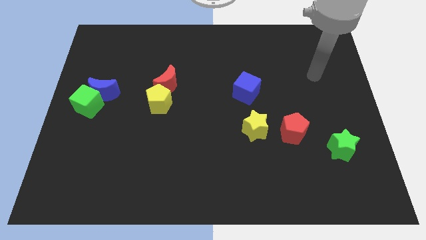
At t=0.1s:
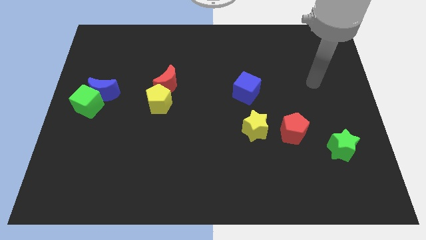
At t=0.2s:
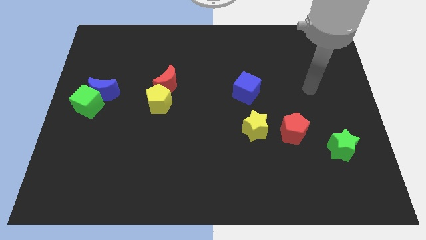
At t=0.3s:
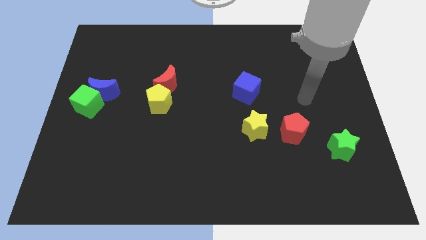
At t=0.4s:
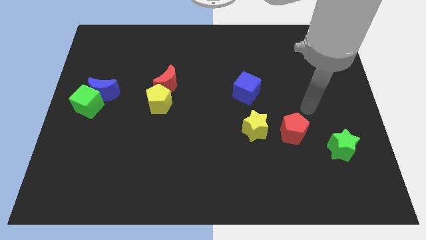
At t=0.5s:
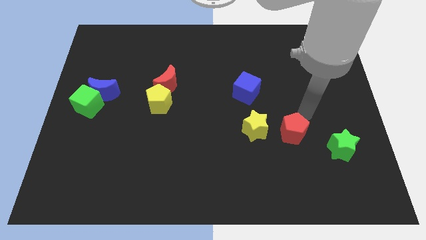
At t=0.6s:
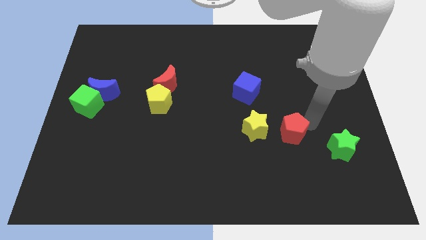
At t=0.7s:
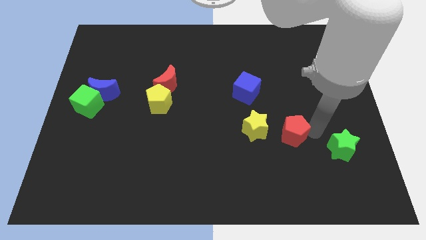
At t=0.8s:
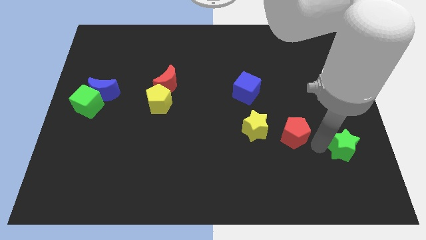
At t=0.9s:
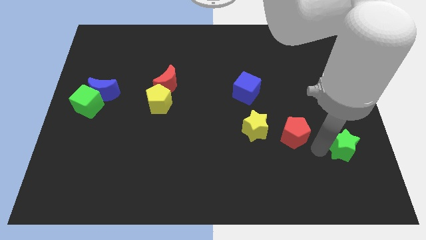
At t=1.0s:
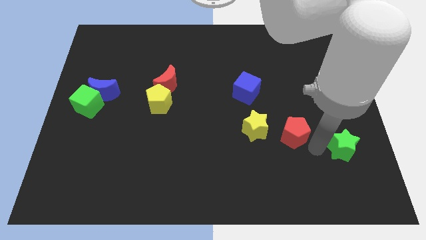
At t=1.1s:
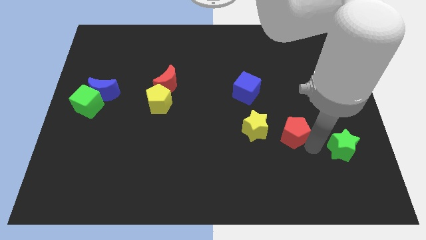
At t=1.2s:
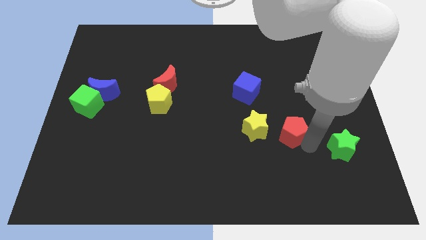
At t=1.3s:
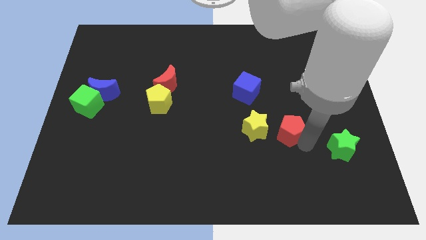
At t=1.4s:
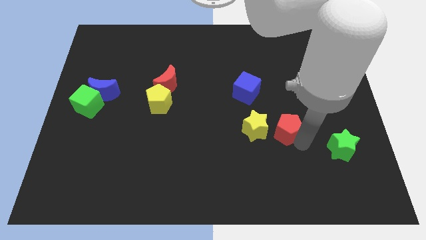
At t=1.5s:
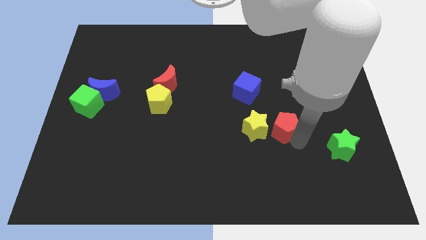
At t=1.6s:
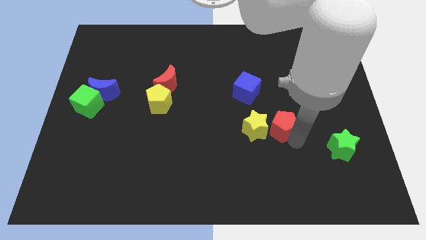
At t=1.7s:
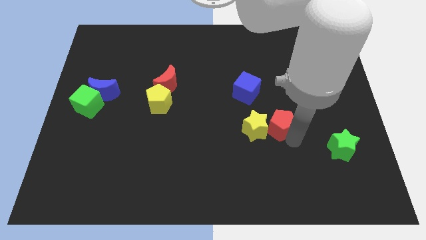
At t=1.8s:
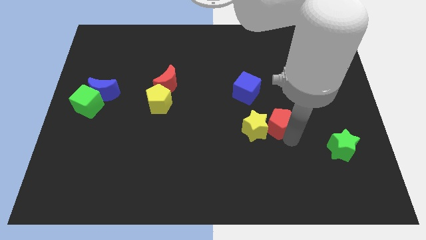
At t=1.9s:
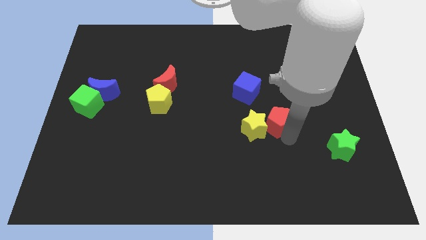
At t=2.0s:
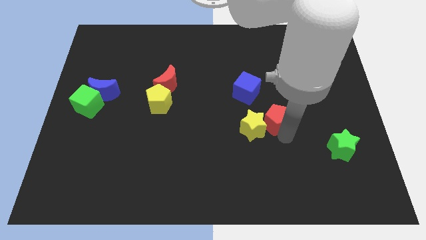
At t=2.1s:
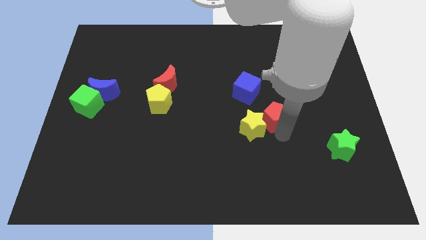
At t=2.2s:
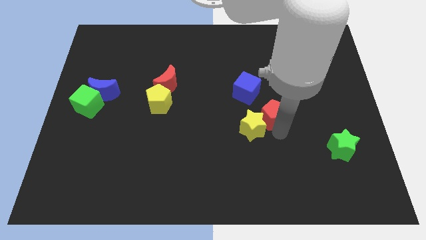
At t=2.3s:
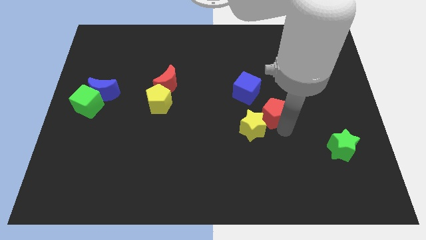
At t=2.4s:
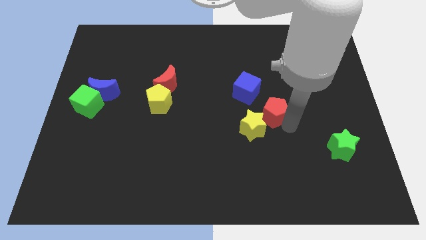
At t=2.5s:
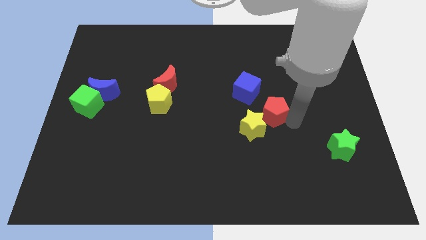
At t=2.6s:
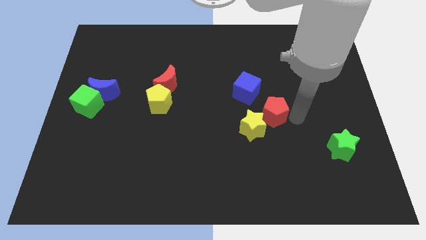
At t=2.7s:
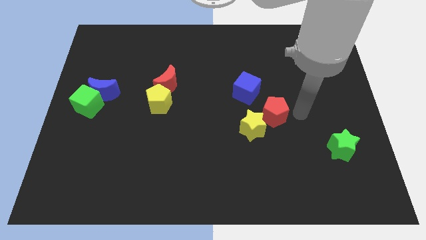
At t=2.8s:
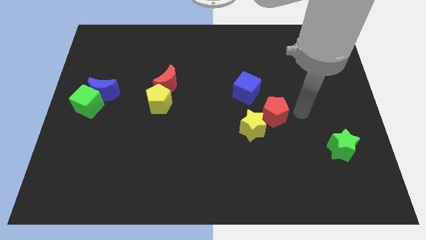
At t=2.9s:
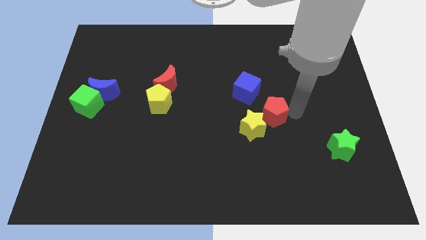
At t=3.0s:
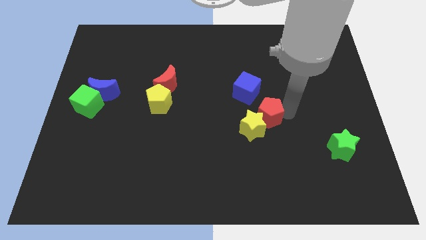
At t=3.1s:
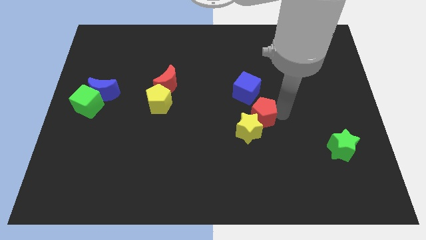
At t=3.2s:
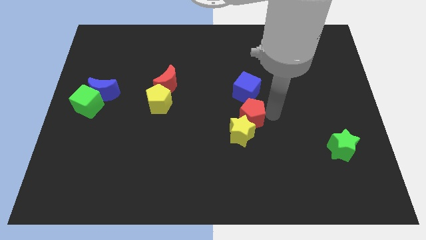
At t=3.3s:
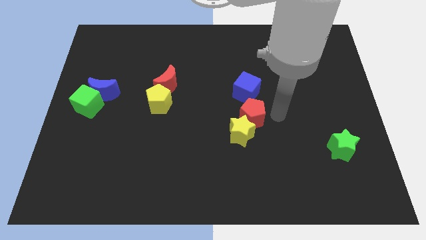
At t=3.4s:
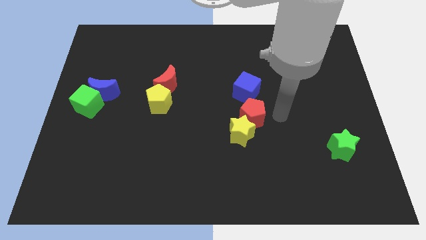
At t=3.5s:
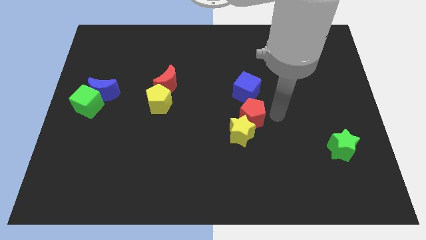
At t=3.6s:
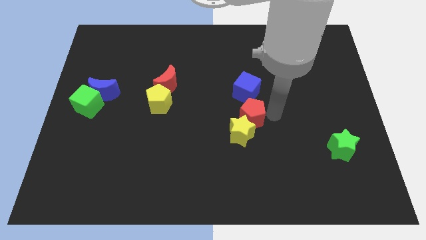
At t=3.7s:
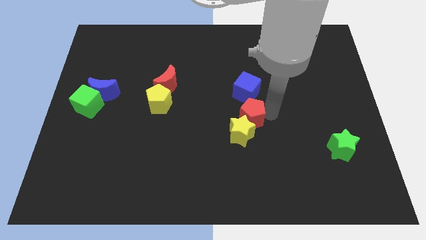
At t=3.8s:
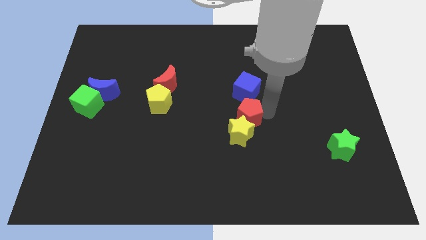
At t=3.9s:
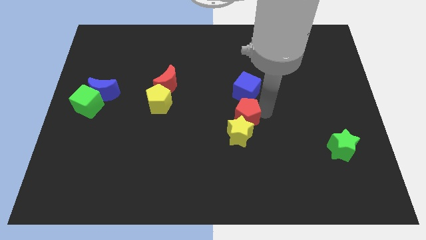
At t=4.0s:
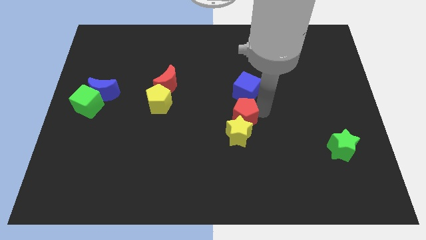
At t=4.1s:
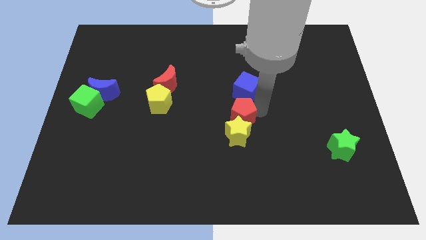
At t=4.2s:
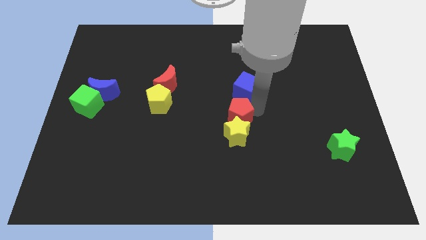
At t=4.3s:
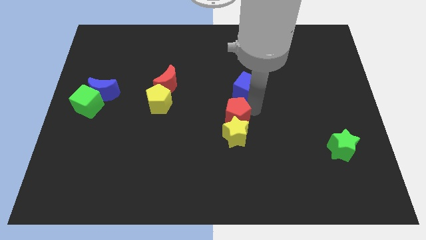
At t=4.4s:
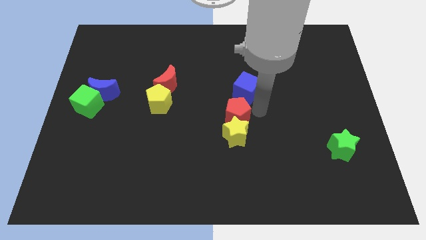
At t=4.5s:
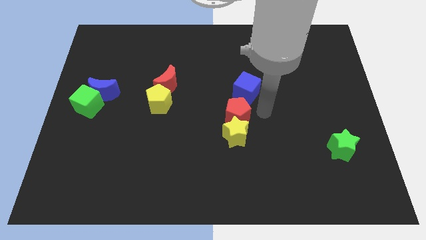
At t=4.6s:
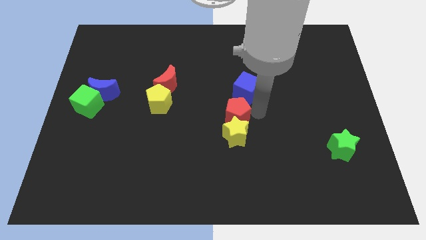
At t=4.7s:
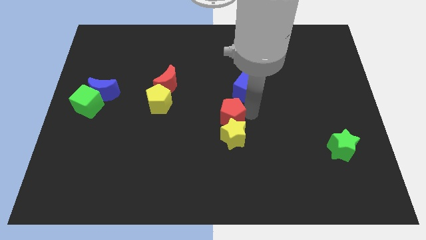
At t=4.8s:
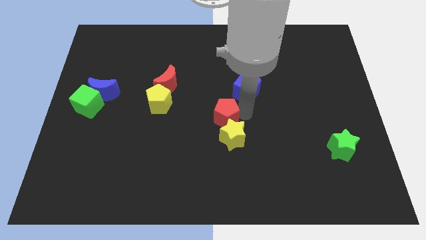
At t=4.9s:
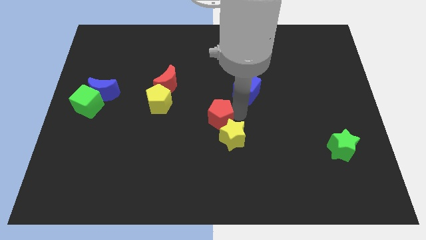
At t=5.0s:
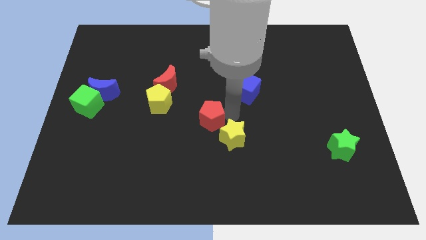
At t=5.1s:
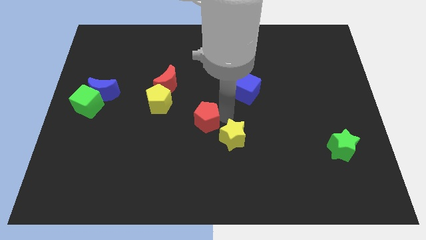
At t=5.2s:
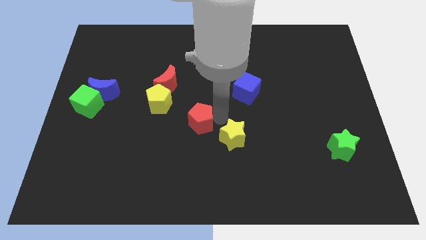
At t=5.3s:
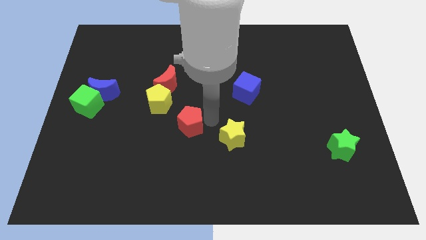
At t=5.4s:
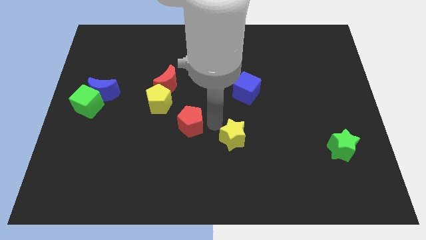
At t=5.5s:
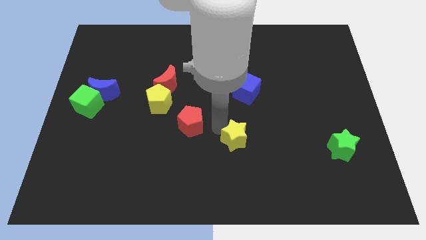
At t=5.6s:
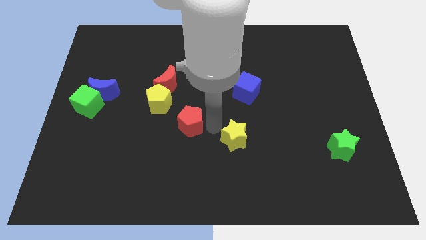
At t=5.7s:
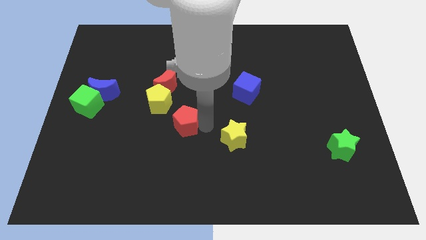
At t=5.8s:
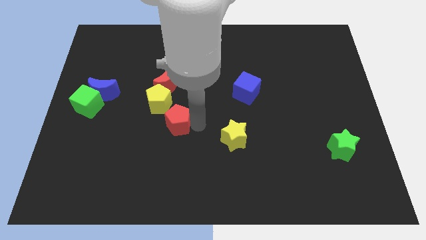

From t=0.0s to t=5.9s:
slide the red pentagon to the bottom of the red moon

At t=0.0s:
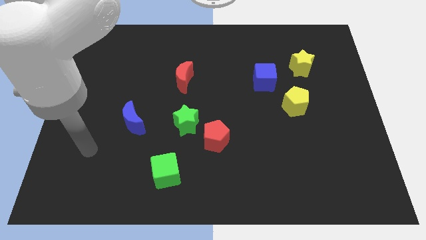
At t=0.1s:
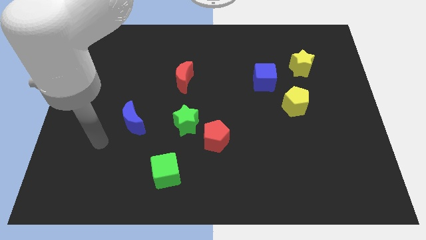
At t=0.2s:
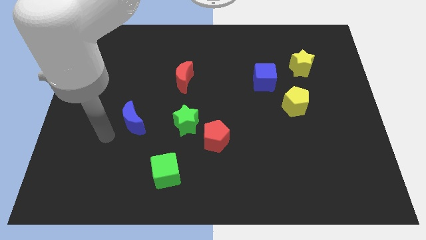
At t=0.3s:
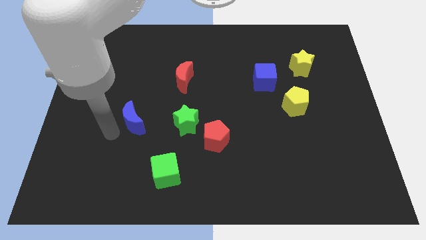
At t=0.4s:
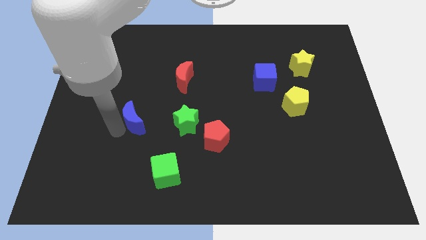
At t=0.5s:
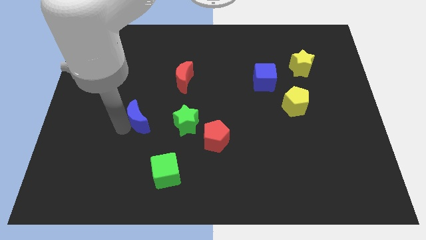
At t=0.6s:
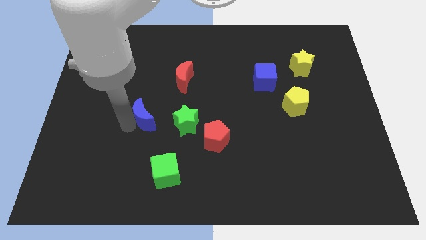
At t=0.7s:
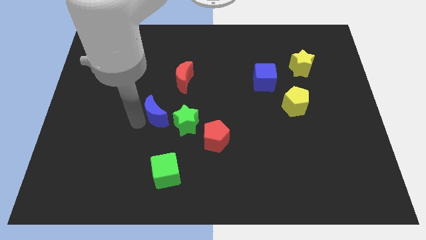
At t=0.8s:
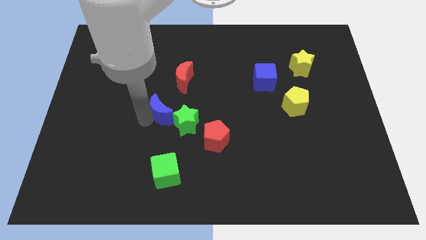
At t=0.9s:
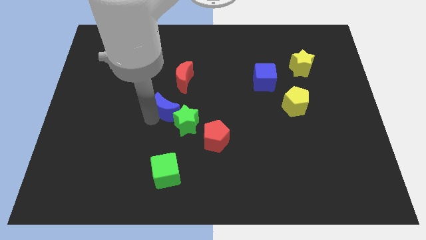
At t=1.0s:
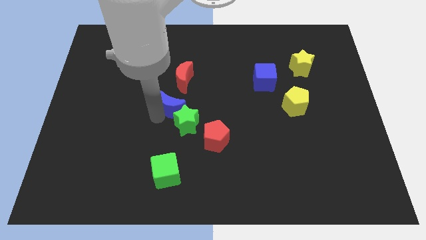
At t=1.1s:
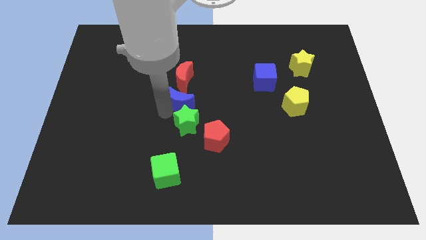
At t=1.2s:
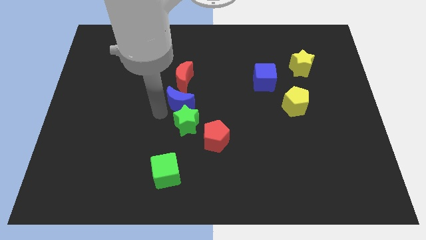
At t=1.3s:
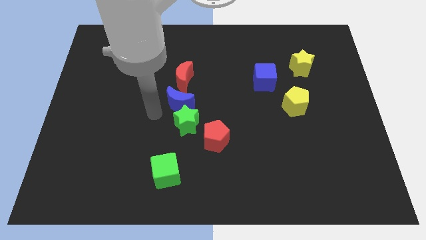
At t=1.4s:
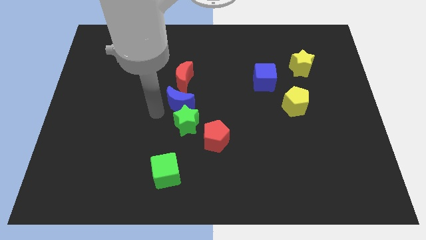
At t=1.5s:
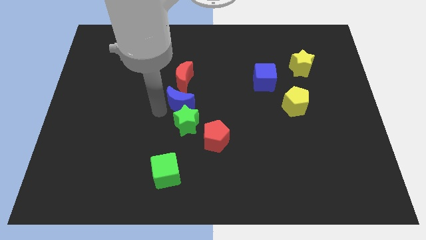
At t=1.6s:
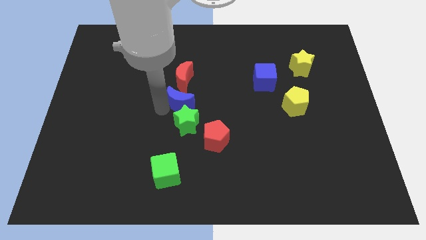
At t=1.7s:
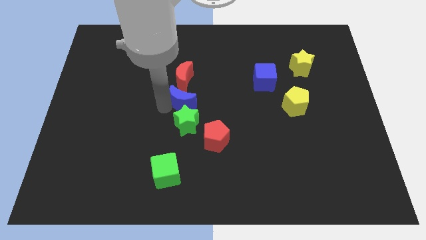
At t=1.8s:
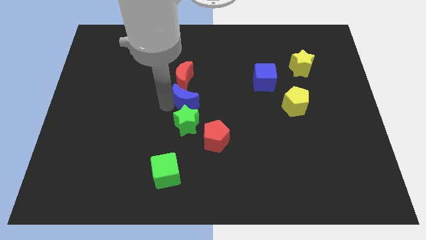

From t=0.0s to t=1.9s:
move the blue moon to the bottom right side of the red moon

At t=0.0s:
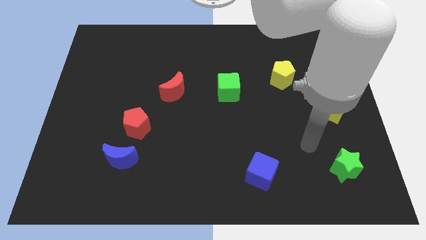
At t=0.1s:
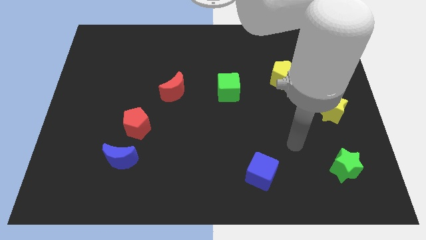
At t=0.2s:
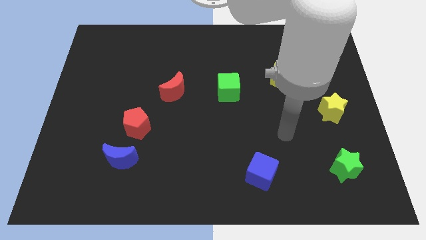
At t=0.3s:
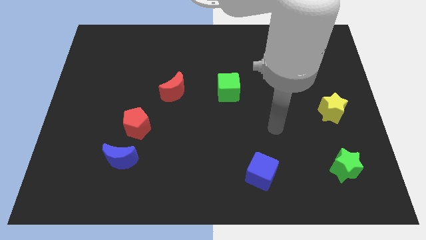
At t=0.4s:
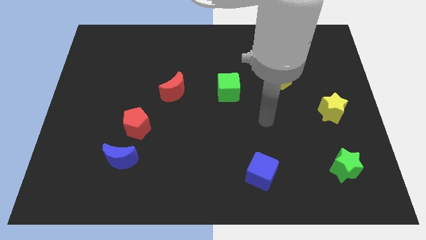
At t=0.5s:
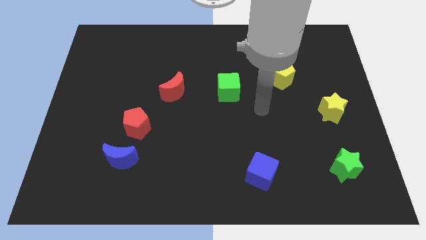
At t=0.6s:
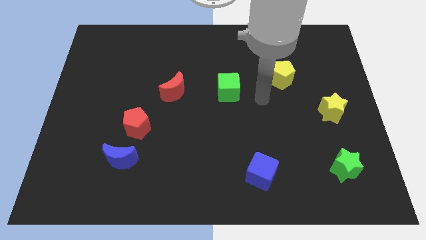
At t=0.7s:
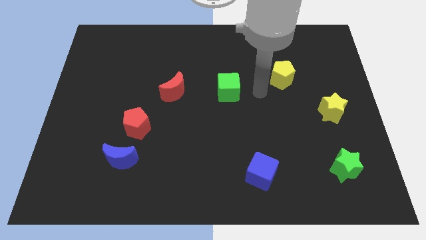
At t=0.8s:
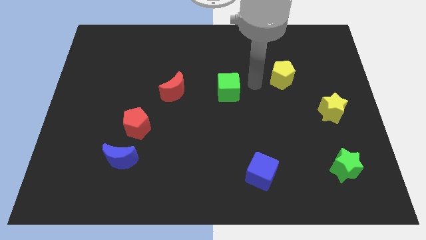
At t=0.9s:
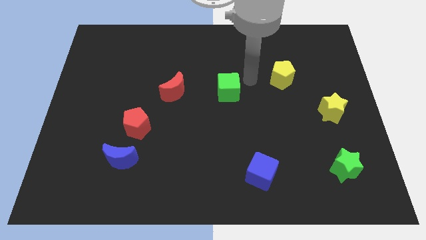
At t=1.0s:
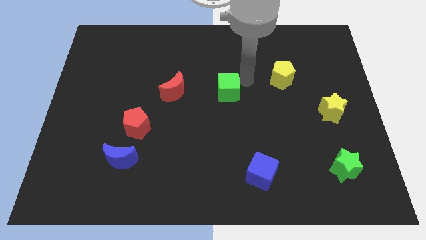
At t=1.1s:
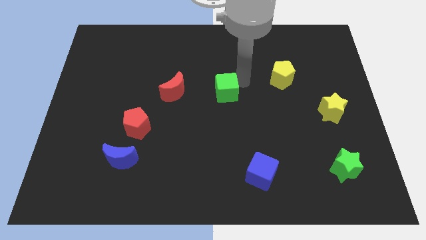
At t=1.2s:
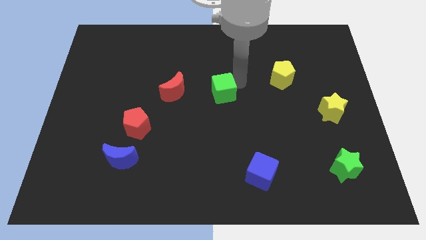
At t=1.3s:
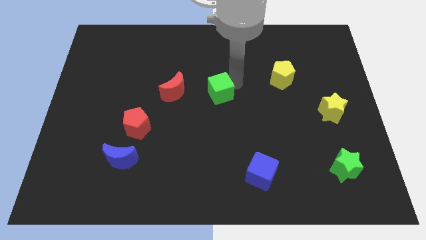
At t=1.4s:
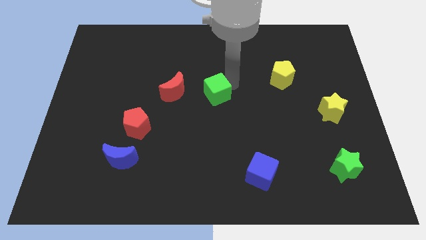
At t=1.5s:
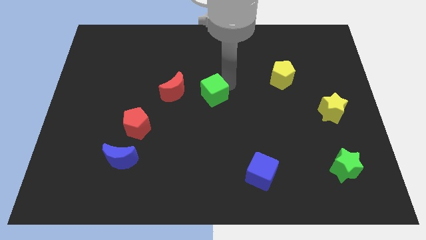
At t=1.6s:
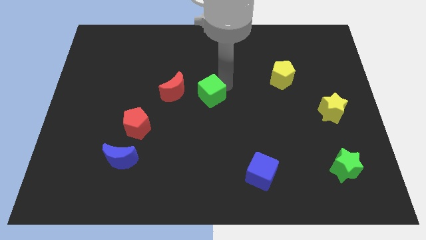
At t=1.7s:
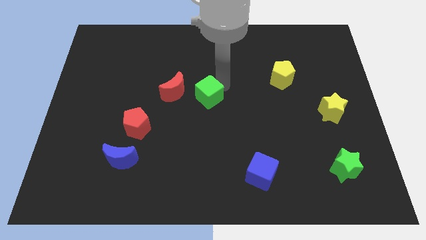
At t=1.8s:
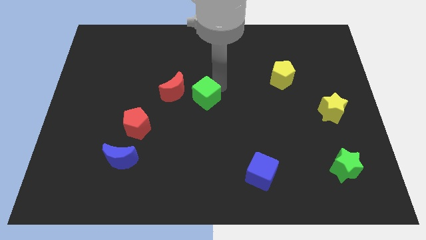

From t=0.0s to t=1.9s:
push the green cube diagonally down and to the right of the red moon
